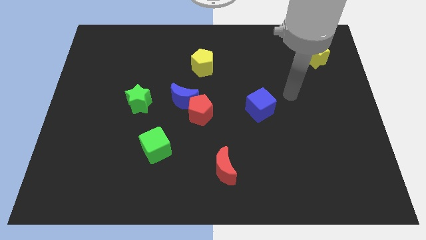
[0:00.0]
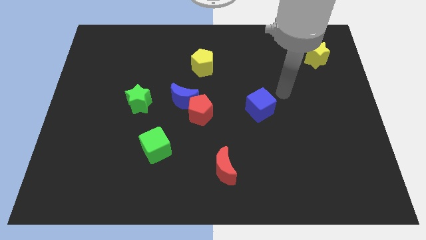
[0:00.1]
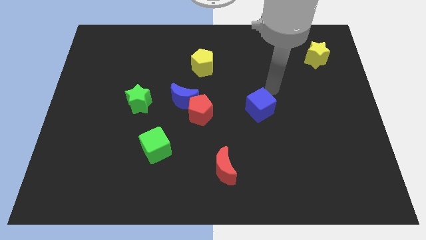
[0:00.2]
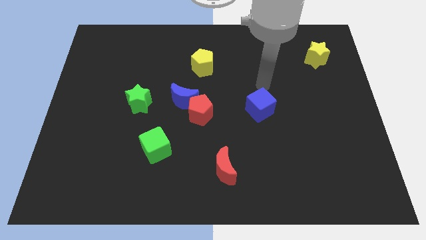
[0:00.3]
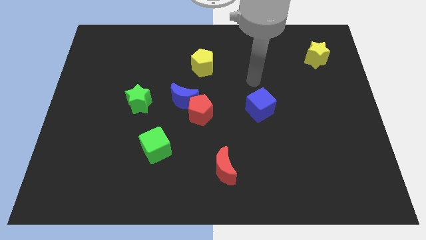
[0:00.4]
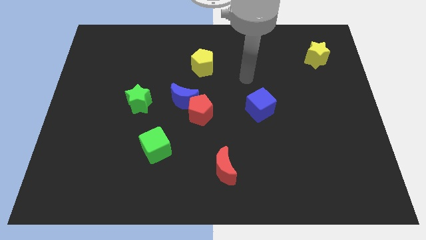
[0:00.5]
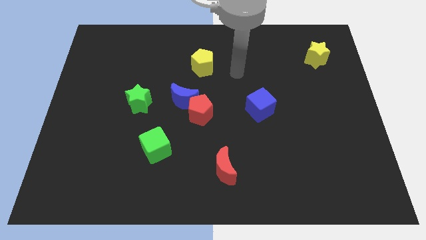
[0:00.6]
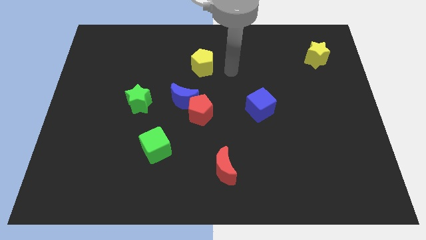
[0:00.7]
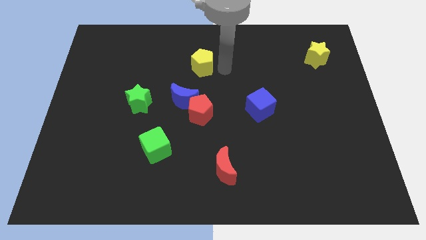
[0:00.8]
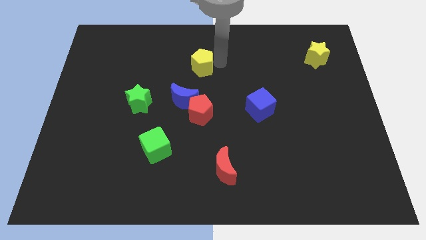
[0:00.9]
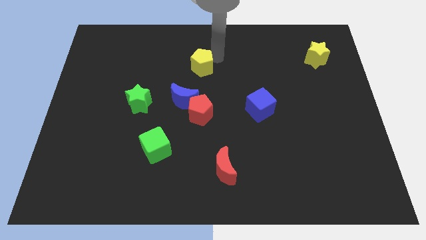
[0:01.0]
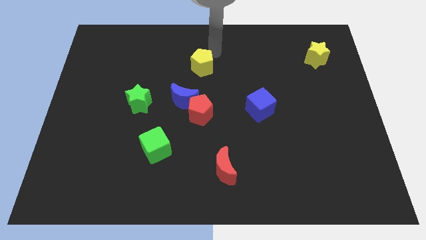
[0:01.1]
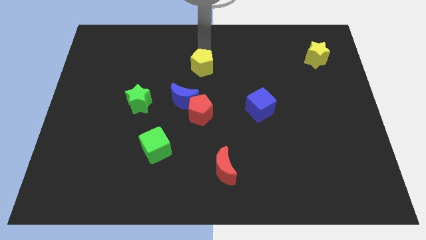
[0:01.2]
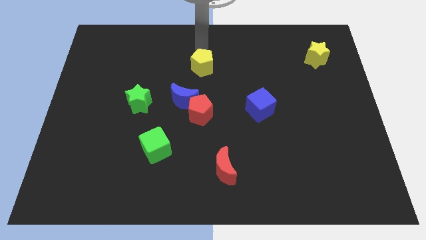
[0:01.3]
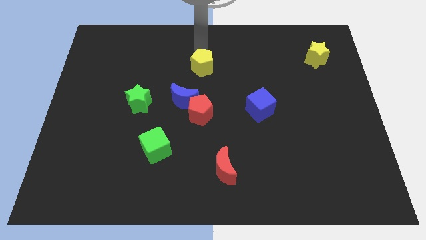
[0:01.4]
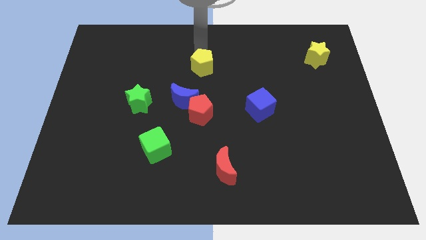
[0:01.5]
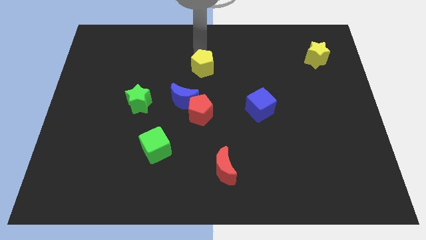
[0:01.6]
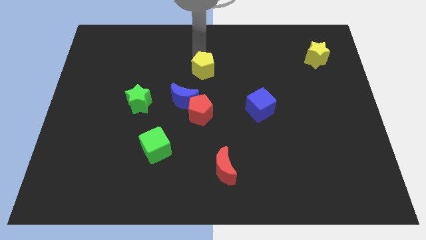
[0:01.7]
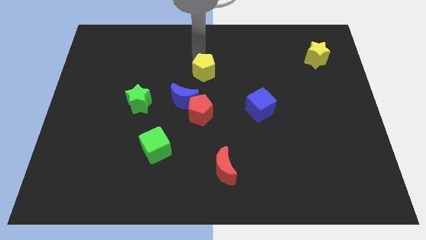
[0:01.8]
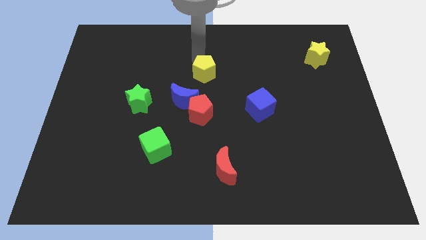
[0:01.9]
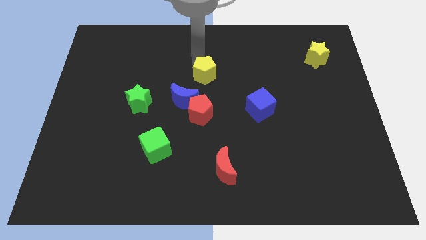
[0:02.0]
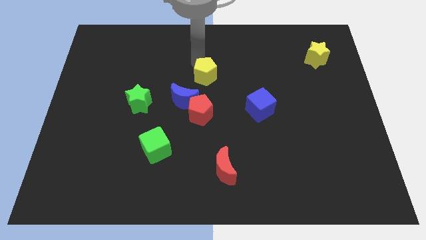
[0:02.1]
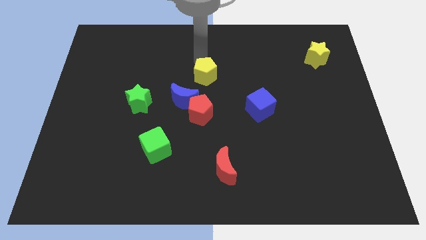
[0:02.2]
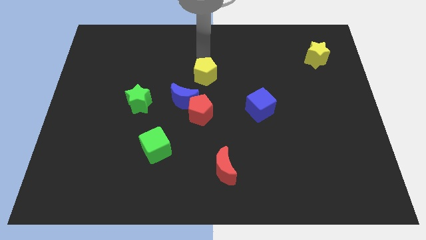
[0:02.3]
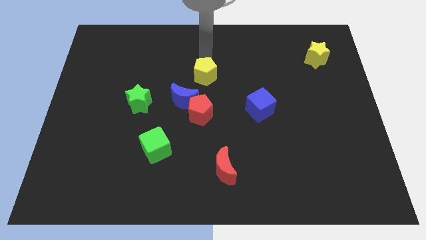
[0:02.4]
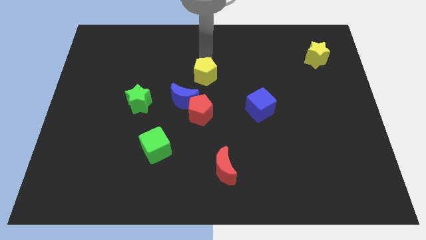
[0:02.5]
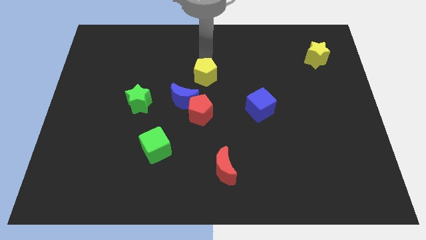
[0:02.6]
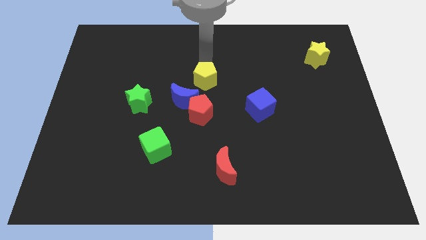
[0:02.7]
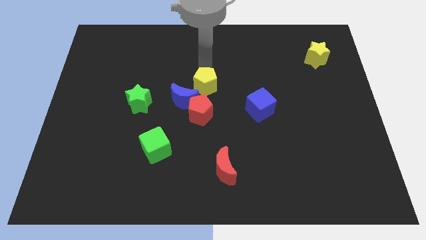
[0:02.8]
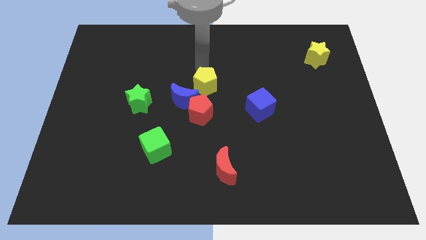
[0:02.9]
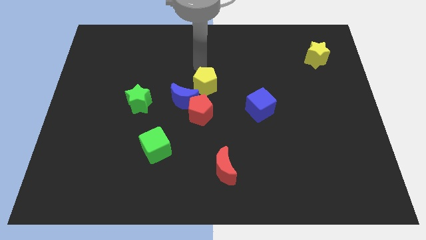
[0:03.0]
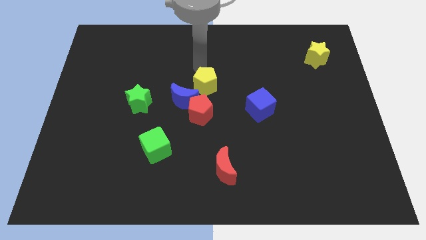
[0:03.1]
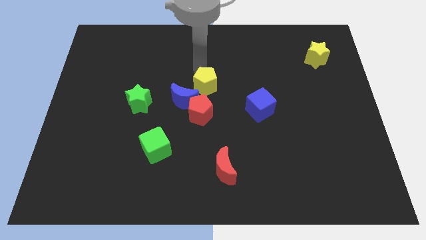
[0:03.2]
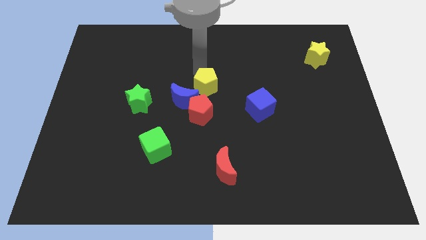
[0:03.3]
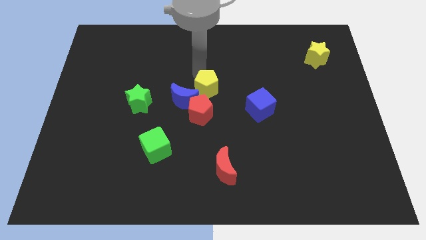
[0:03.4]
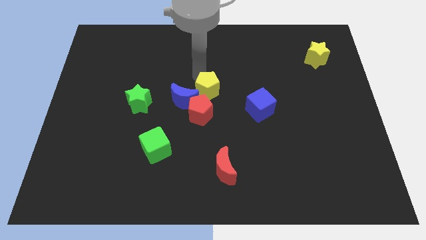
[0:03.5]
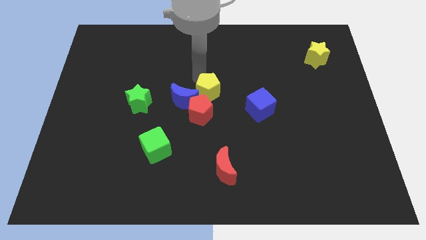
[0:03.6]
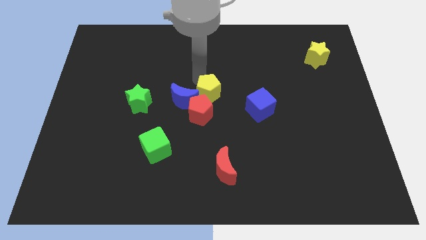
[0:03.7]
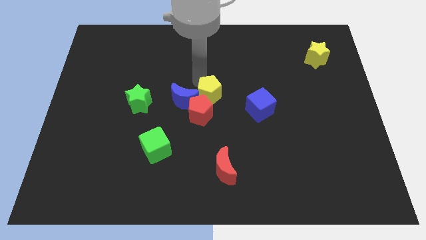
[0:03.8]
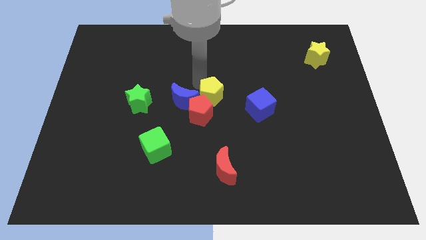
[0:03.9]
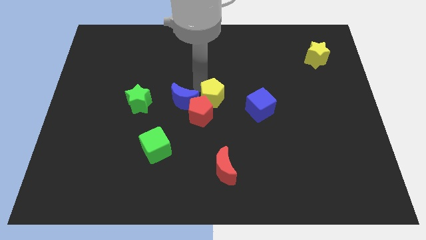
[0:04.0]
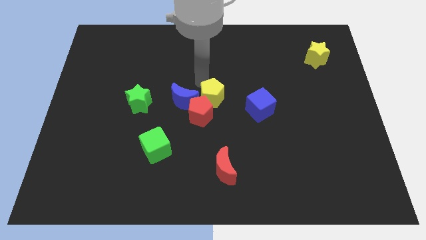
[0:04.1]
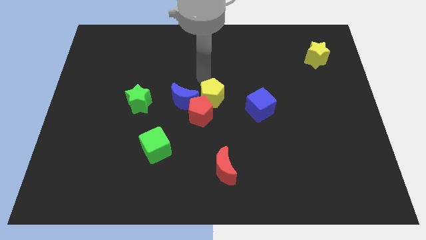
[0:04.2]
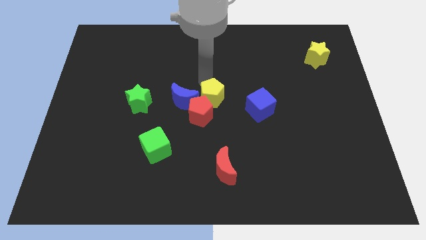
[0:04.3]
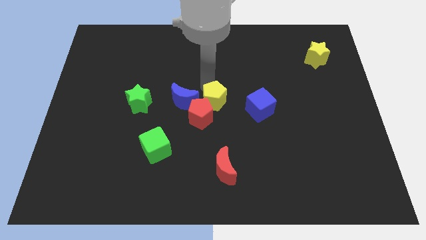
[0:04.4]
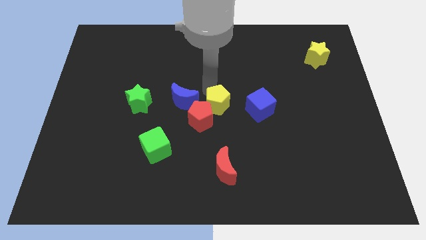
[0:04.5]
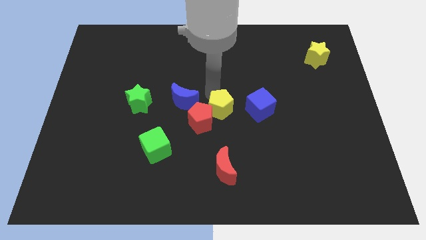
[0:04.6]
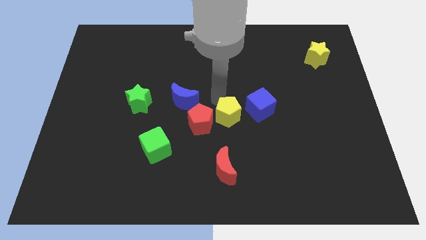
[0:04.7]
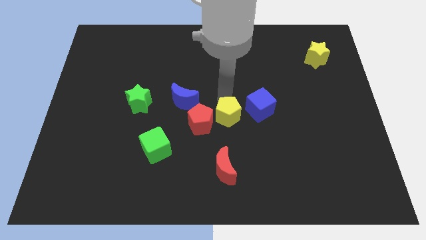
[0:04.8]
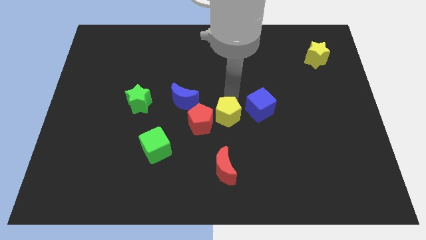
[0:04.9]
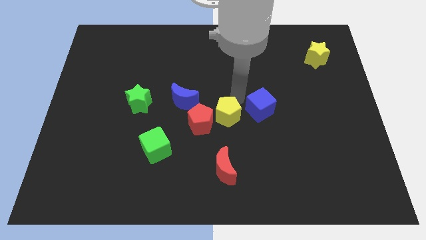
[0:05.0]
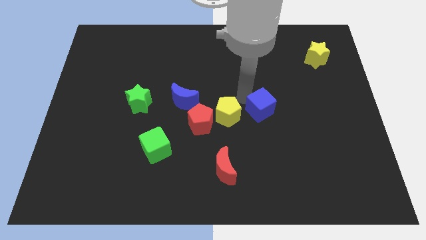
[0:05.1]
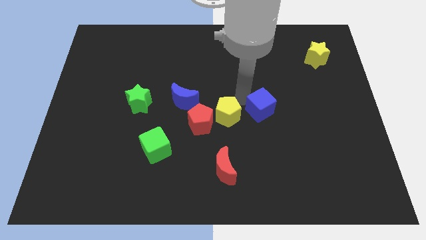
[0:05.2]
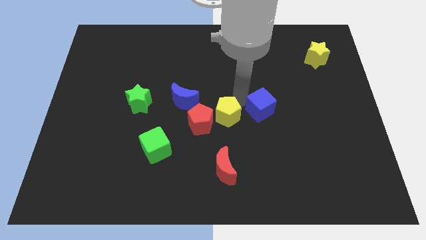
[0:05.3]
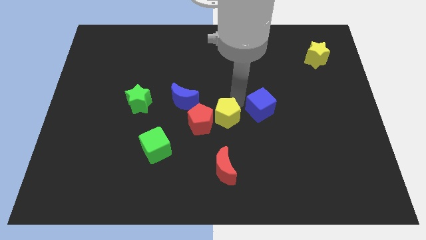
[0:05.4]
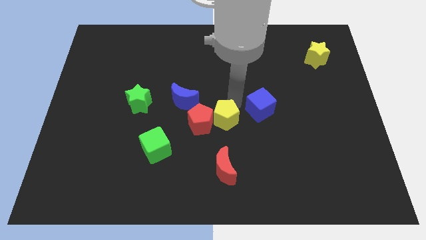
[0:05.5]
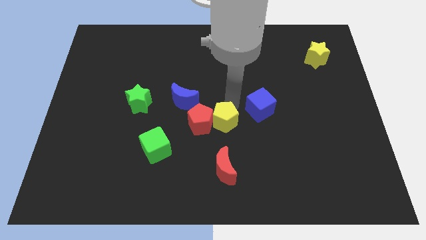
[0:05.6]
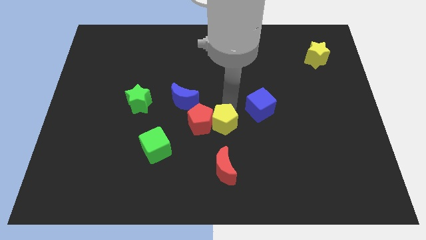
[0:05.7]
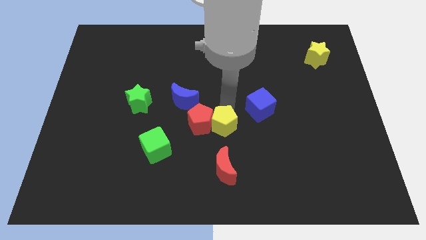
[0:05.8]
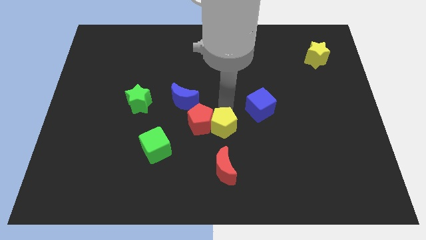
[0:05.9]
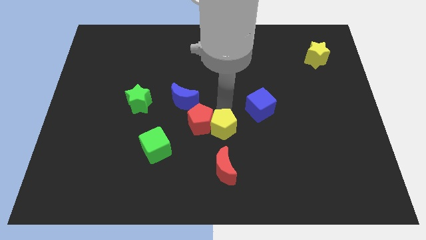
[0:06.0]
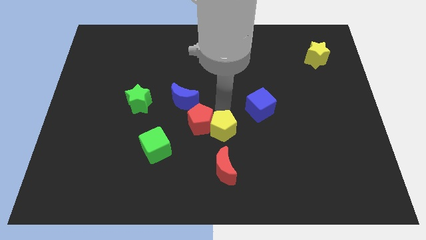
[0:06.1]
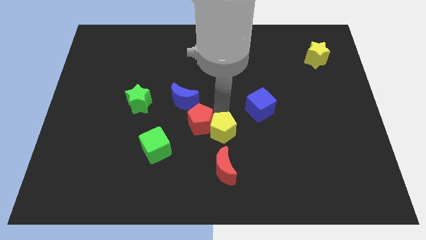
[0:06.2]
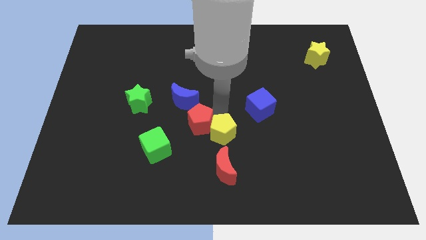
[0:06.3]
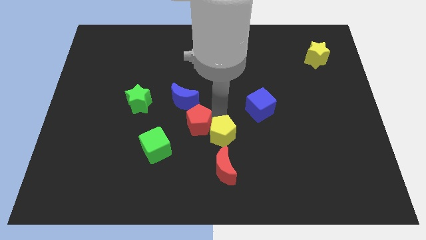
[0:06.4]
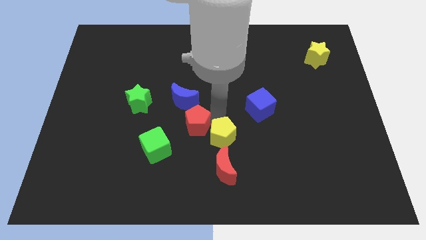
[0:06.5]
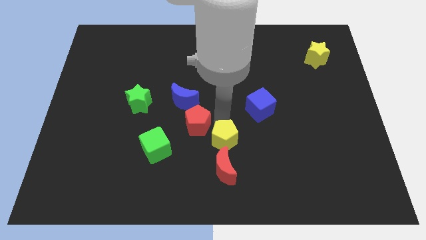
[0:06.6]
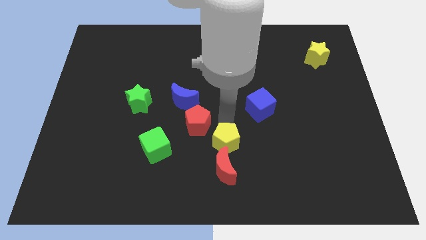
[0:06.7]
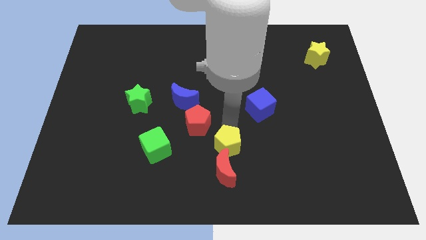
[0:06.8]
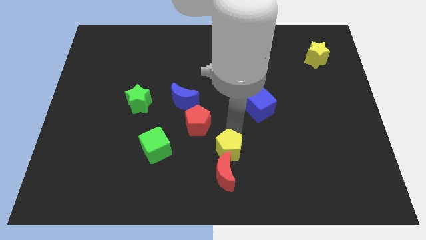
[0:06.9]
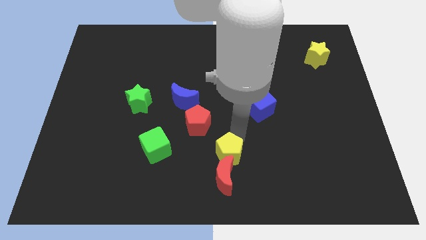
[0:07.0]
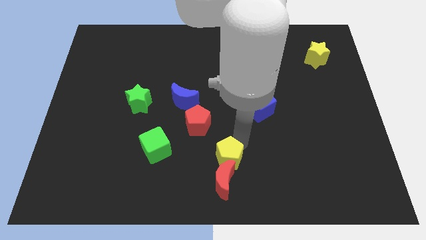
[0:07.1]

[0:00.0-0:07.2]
put the yellow pentagon to the bottom
